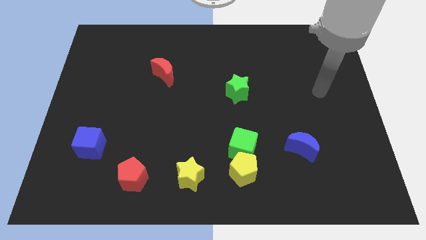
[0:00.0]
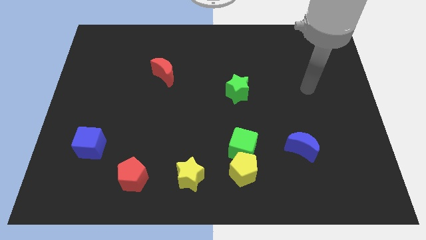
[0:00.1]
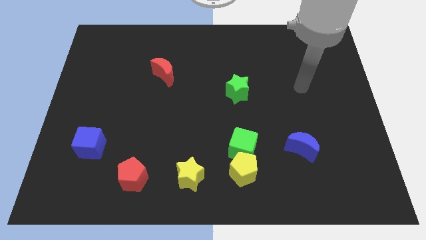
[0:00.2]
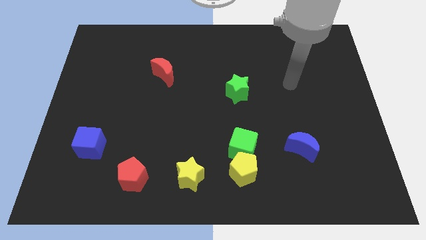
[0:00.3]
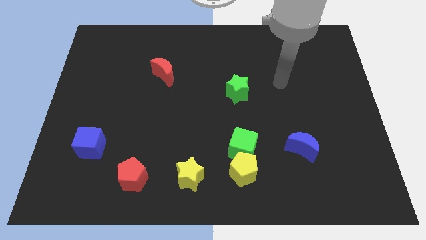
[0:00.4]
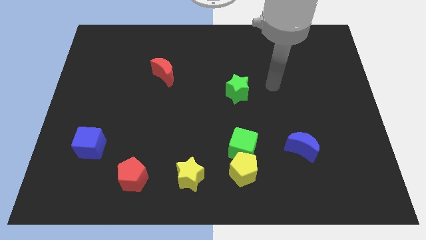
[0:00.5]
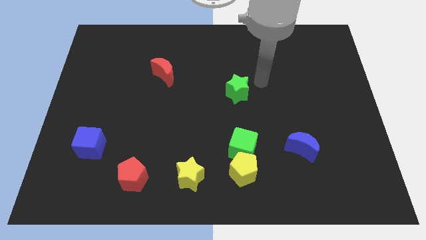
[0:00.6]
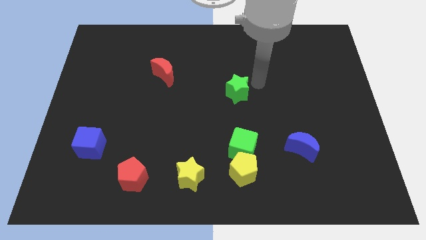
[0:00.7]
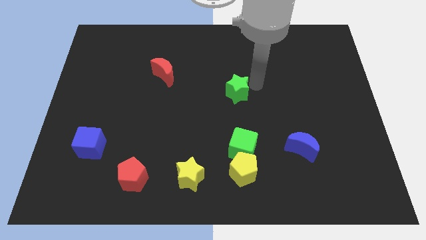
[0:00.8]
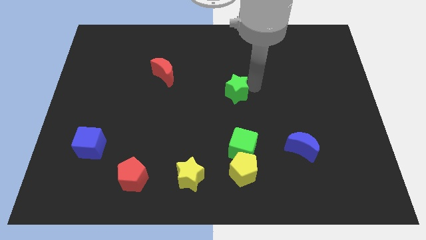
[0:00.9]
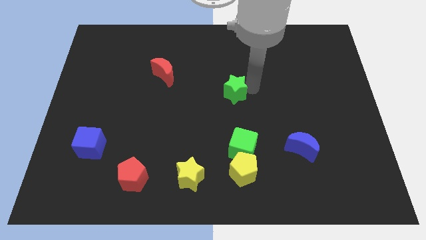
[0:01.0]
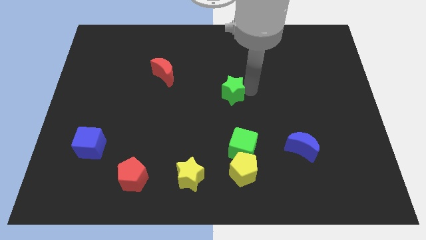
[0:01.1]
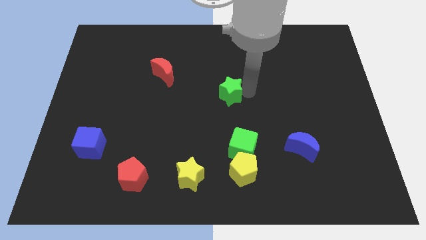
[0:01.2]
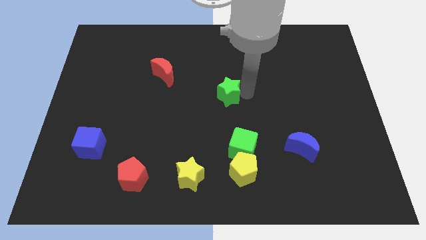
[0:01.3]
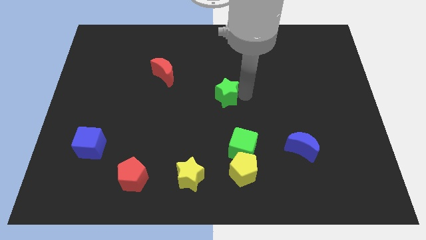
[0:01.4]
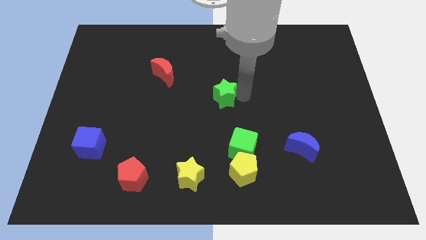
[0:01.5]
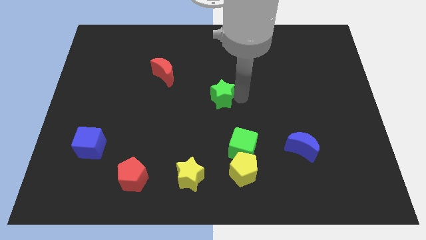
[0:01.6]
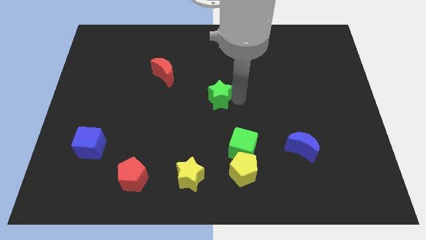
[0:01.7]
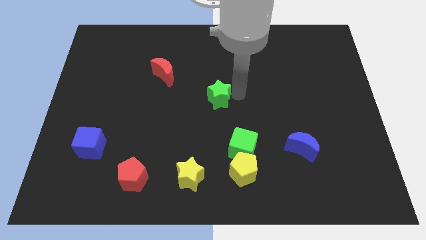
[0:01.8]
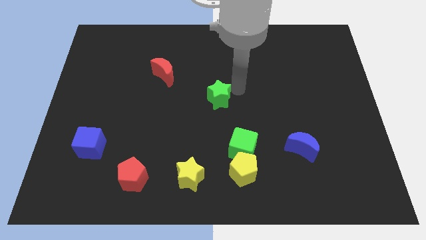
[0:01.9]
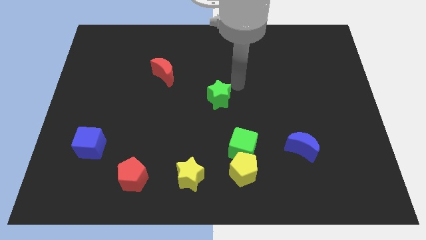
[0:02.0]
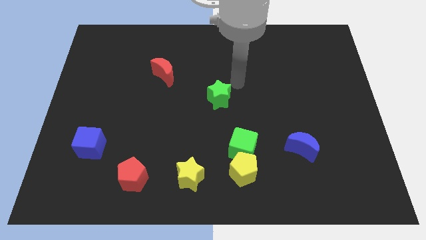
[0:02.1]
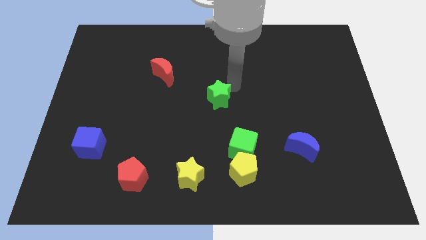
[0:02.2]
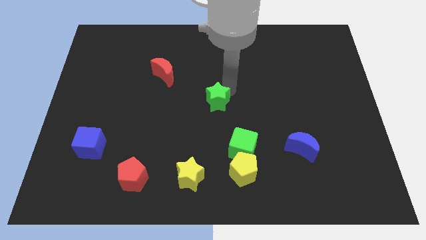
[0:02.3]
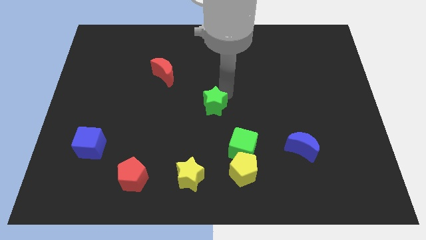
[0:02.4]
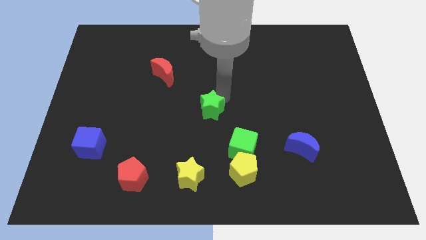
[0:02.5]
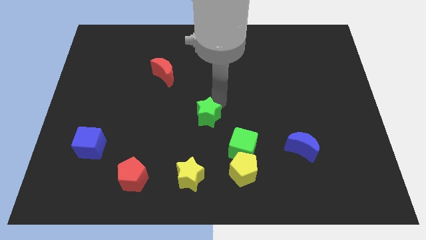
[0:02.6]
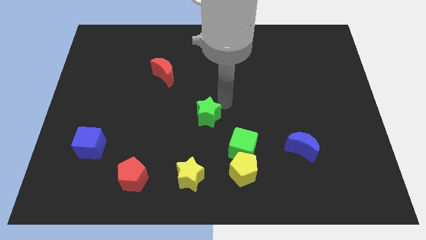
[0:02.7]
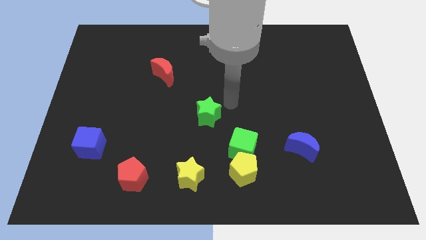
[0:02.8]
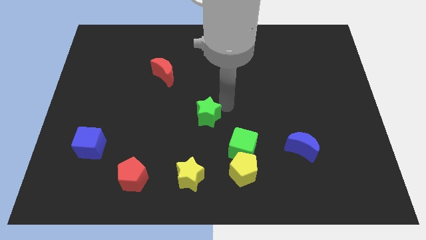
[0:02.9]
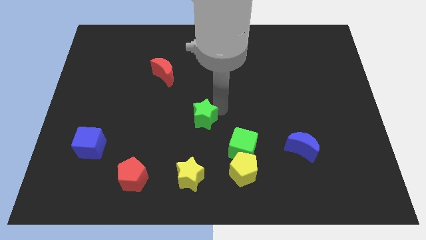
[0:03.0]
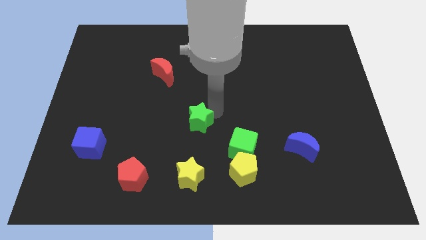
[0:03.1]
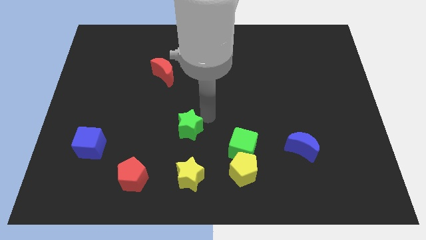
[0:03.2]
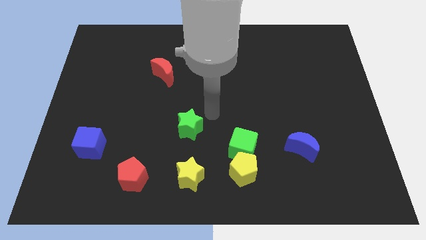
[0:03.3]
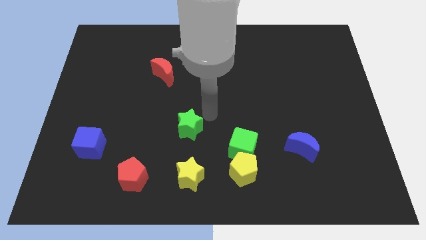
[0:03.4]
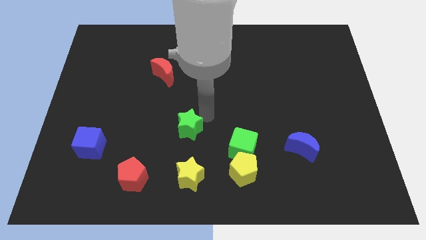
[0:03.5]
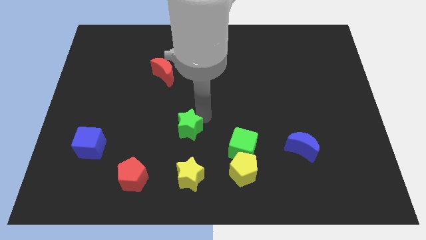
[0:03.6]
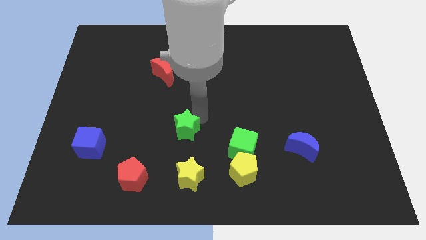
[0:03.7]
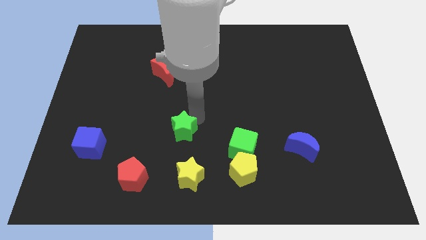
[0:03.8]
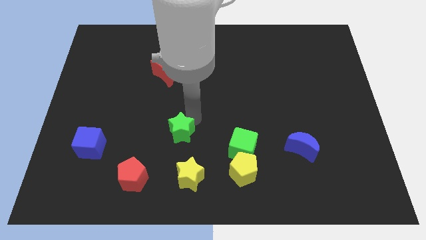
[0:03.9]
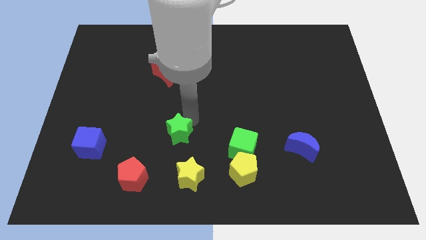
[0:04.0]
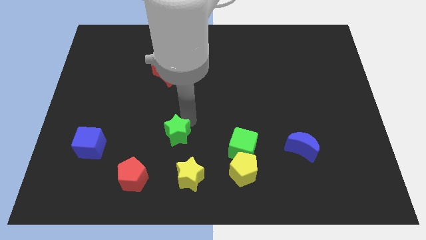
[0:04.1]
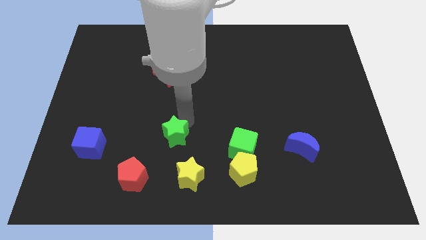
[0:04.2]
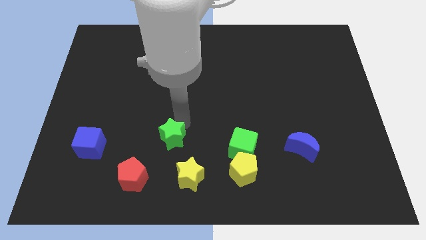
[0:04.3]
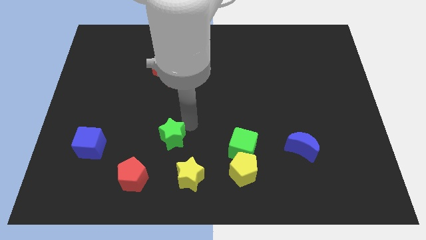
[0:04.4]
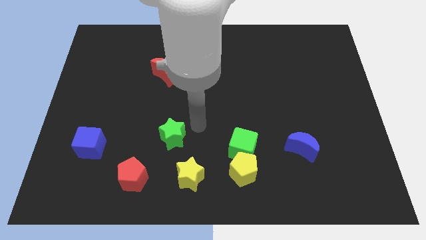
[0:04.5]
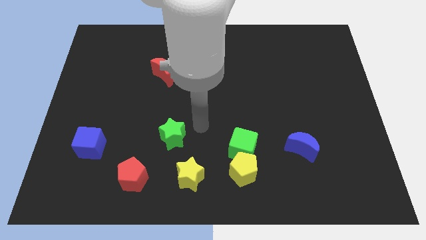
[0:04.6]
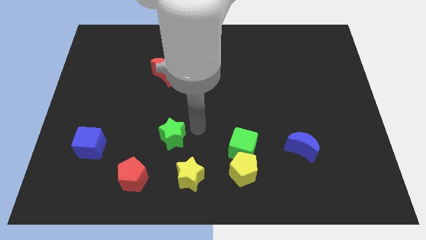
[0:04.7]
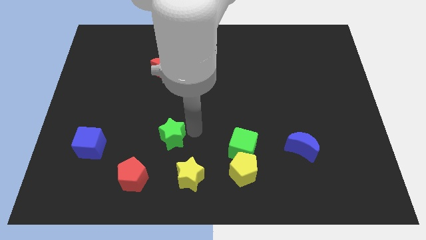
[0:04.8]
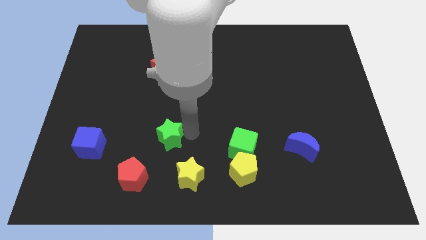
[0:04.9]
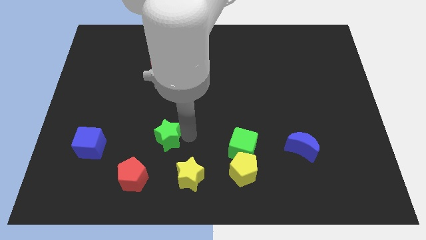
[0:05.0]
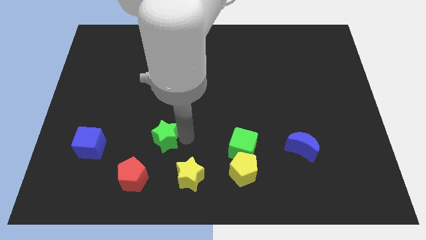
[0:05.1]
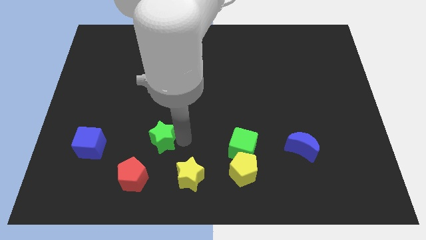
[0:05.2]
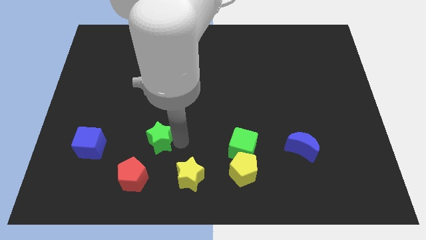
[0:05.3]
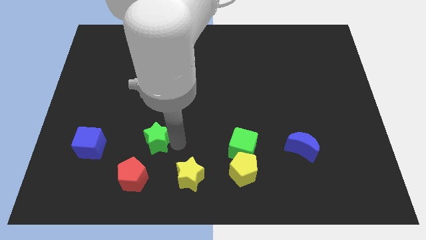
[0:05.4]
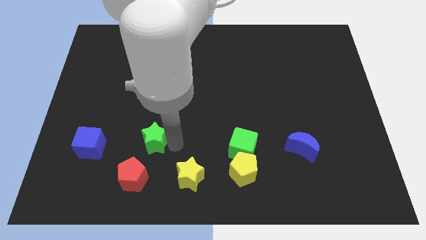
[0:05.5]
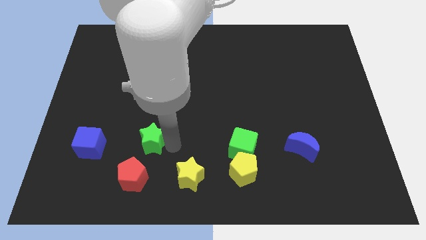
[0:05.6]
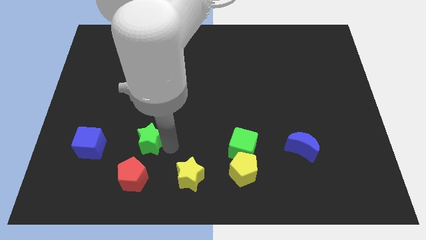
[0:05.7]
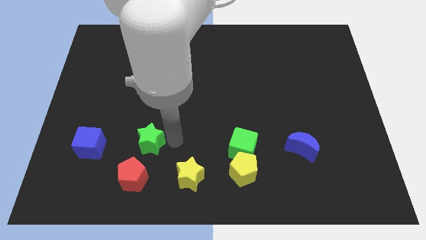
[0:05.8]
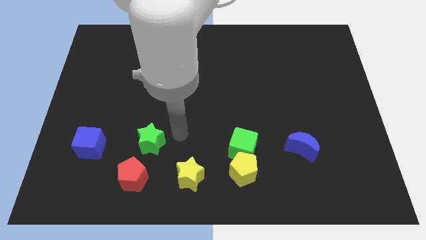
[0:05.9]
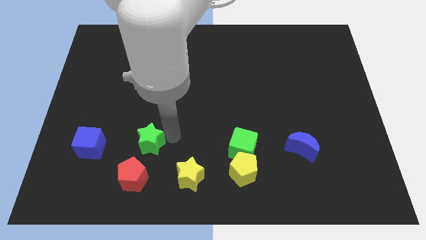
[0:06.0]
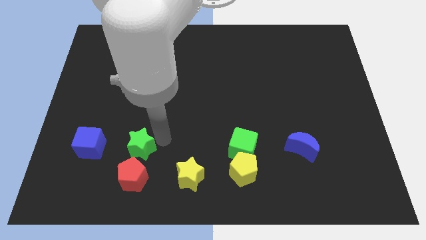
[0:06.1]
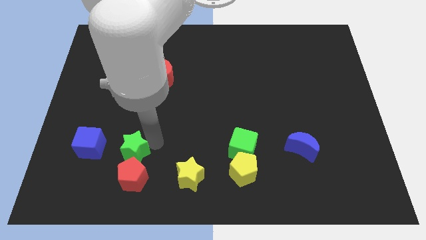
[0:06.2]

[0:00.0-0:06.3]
move the green star to the top left of the red pentagon

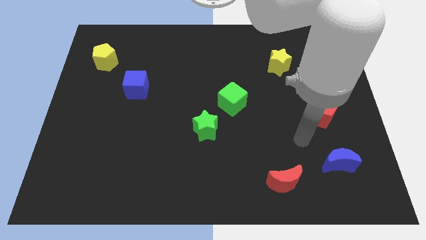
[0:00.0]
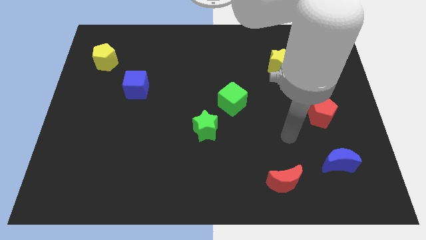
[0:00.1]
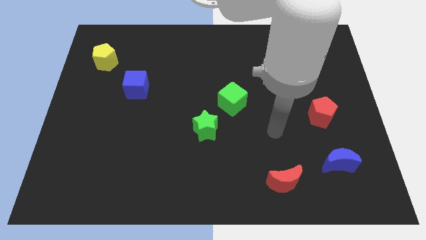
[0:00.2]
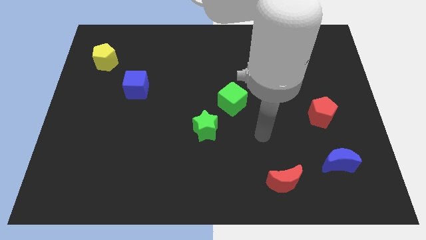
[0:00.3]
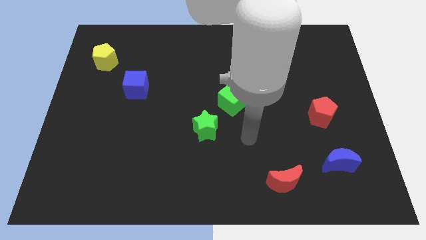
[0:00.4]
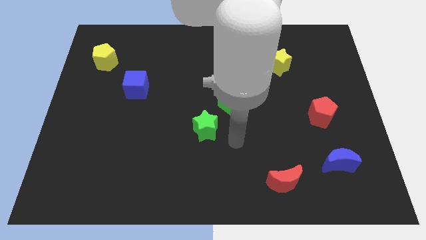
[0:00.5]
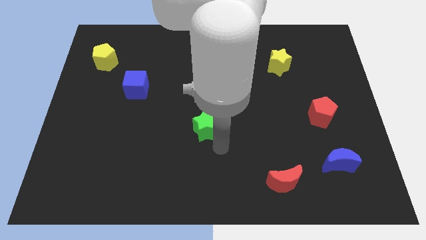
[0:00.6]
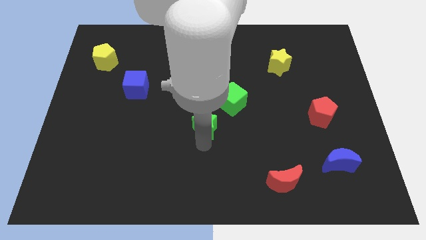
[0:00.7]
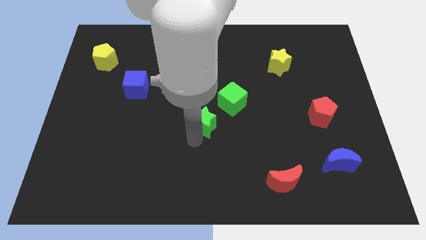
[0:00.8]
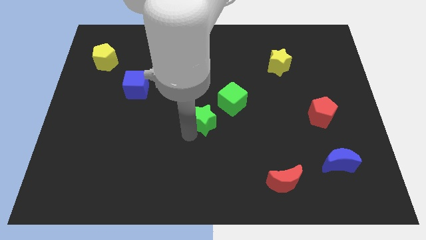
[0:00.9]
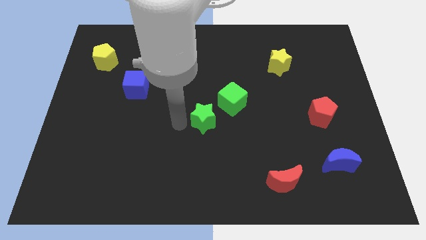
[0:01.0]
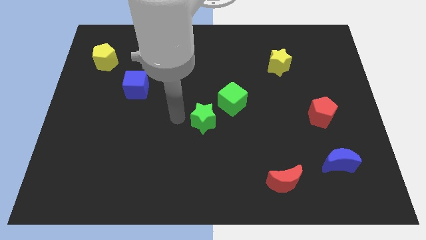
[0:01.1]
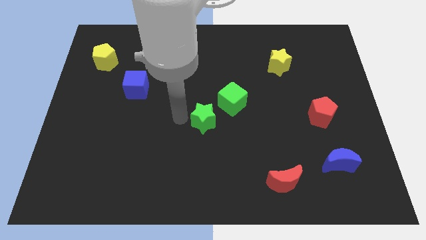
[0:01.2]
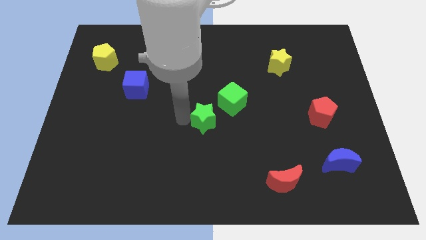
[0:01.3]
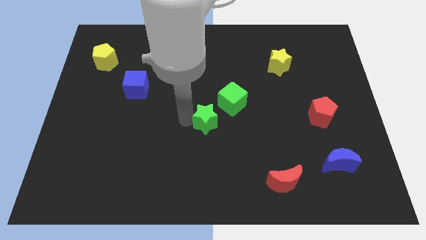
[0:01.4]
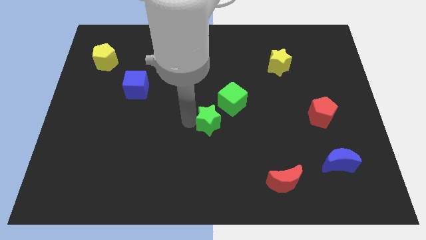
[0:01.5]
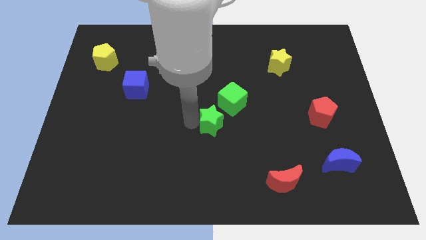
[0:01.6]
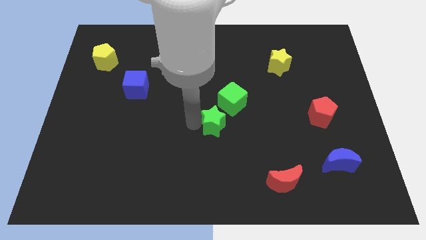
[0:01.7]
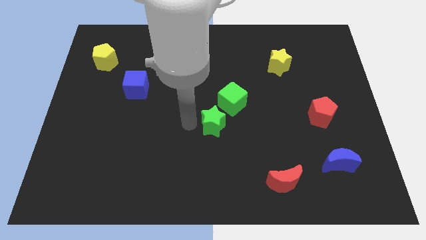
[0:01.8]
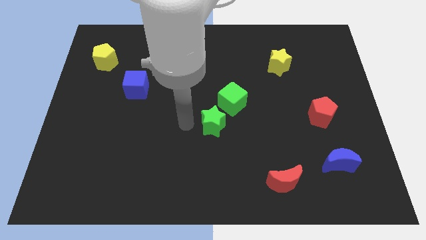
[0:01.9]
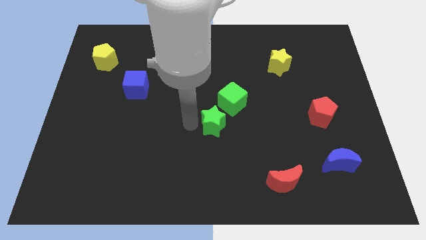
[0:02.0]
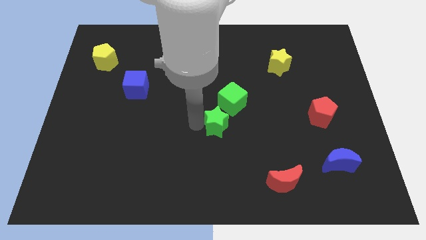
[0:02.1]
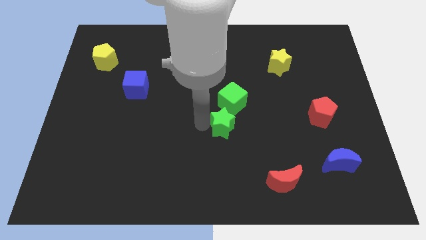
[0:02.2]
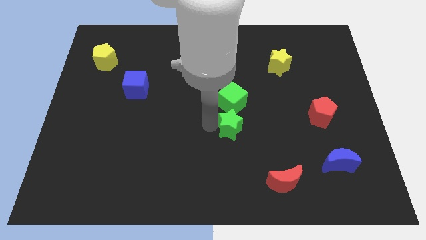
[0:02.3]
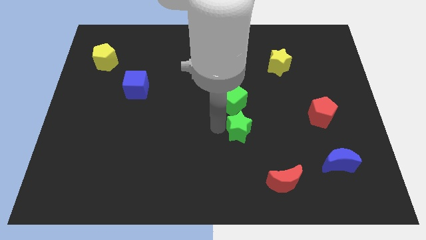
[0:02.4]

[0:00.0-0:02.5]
put the green star to the bottom right of the green cube
